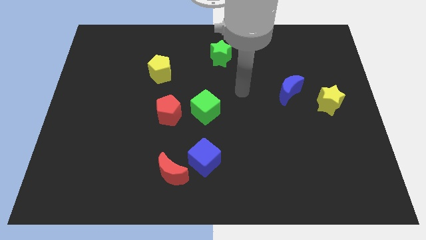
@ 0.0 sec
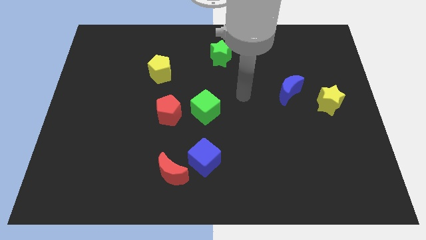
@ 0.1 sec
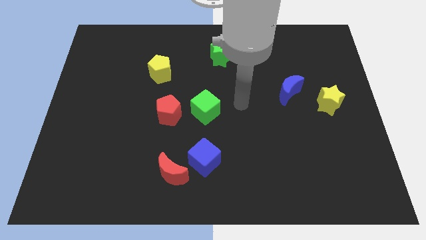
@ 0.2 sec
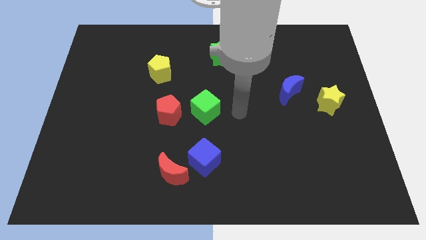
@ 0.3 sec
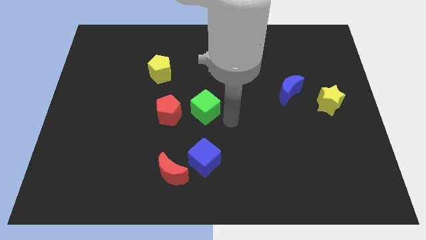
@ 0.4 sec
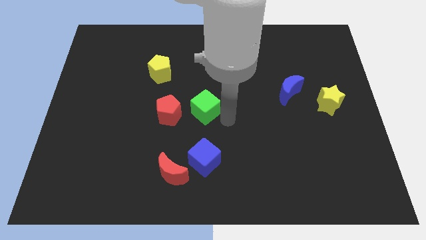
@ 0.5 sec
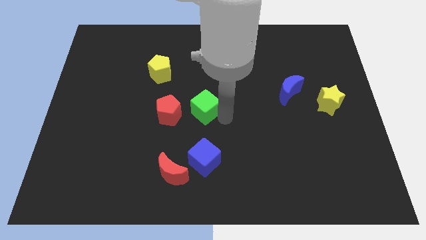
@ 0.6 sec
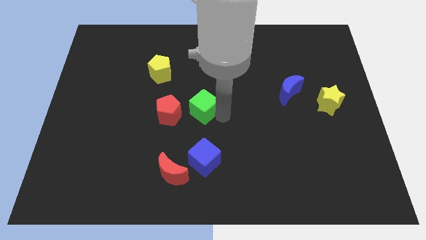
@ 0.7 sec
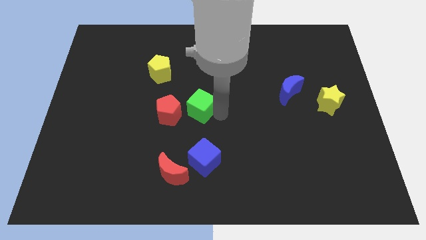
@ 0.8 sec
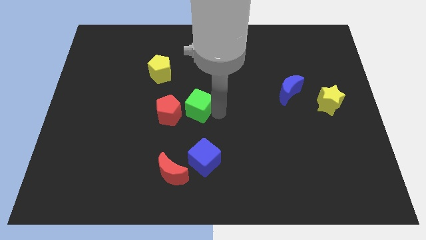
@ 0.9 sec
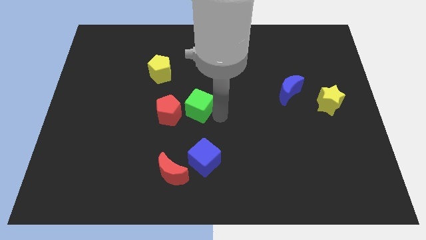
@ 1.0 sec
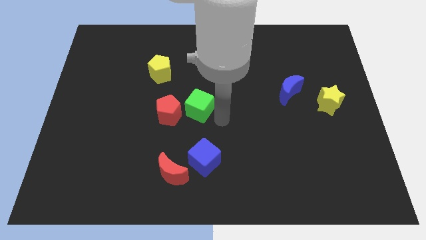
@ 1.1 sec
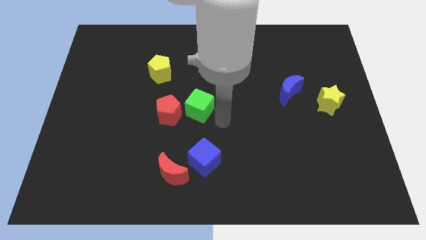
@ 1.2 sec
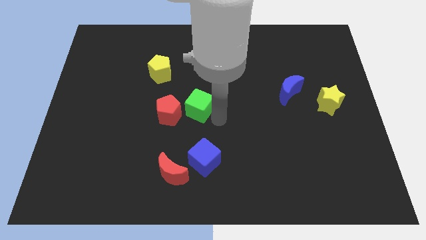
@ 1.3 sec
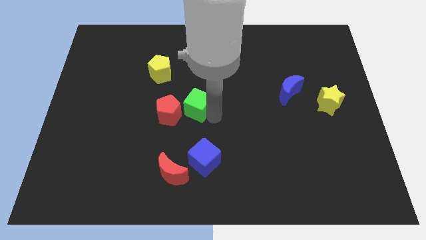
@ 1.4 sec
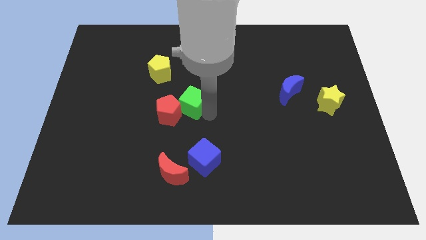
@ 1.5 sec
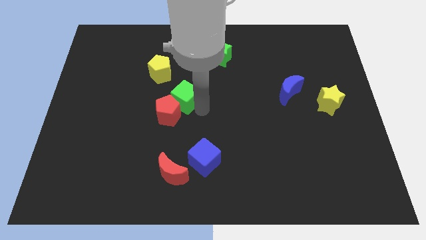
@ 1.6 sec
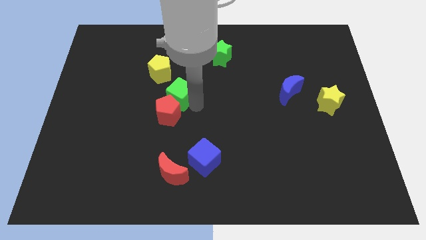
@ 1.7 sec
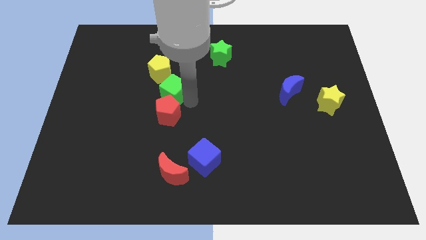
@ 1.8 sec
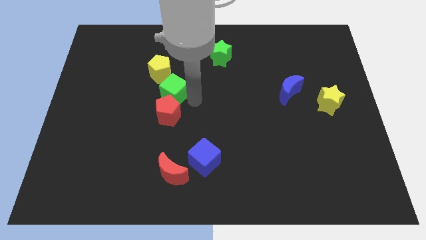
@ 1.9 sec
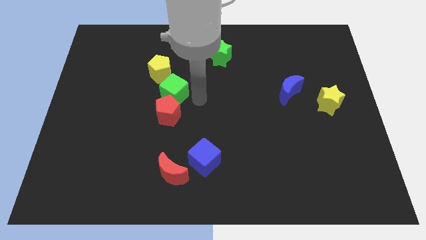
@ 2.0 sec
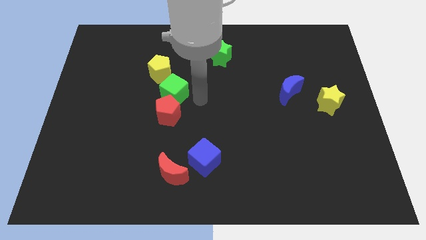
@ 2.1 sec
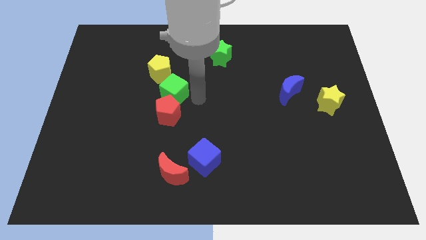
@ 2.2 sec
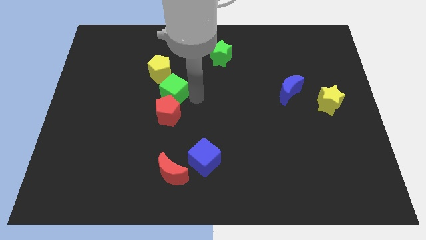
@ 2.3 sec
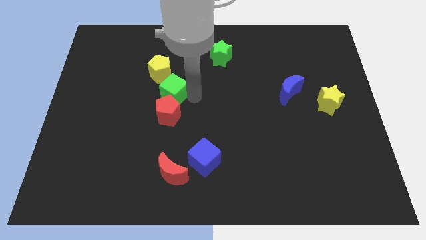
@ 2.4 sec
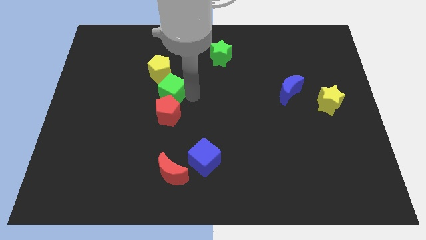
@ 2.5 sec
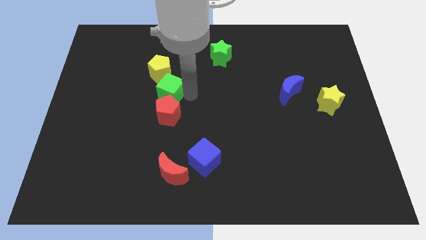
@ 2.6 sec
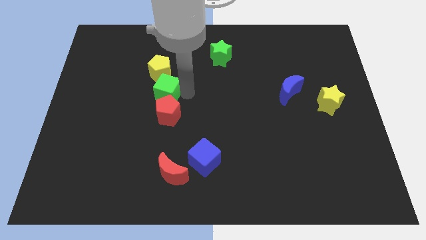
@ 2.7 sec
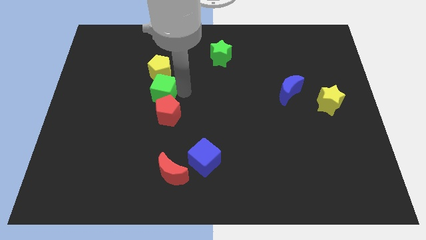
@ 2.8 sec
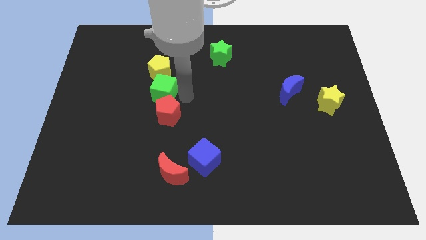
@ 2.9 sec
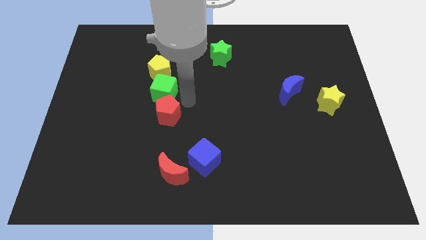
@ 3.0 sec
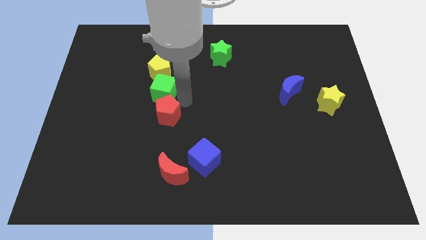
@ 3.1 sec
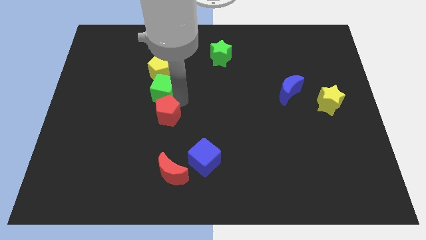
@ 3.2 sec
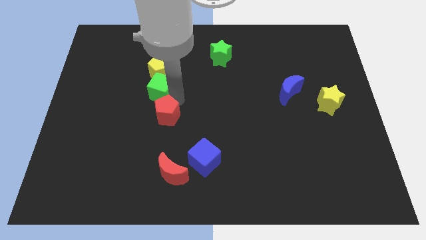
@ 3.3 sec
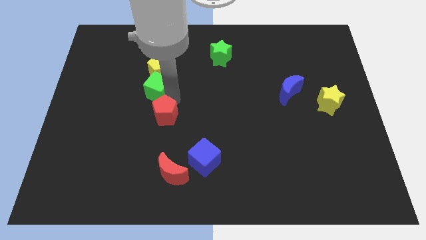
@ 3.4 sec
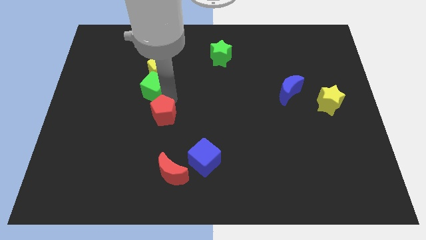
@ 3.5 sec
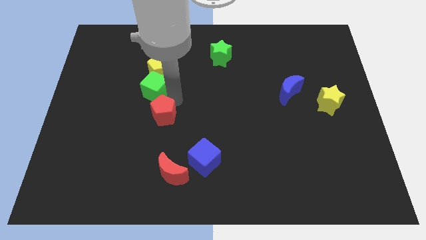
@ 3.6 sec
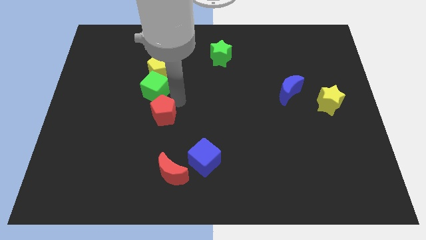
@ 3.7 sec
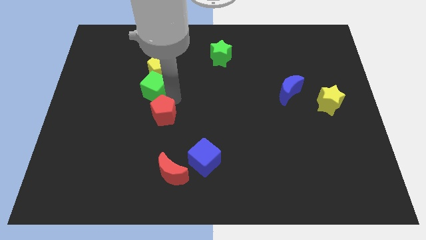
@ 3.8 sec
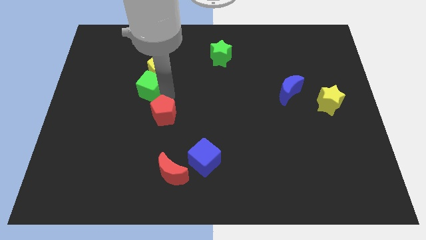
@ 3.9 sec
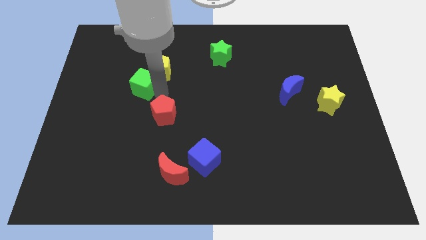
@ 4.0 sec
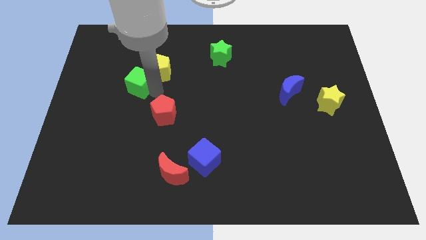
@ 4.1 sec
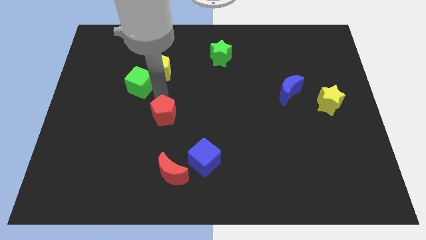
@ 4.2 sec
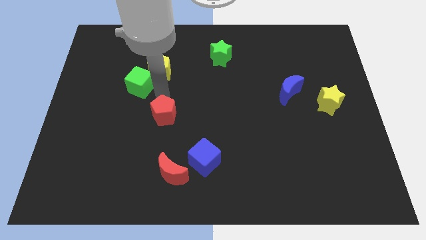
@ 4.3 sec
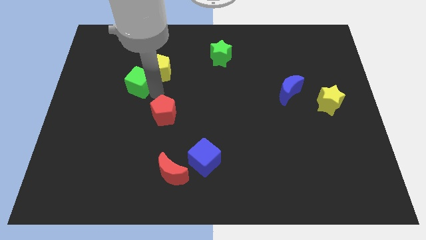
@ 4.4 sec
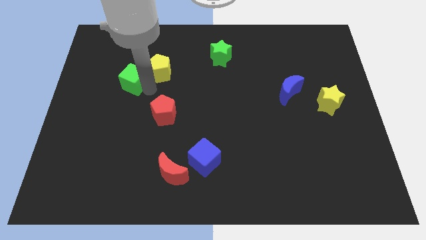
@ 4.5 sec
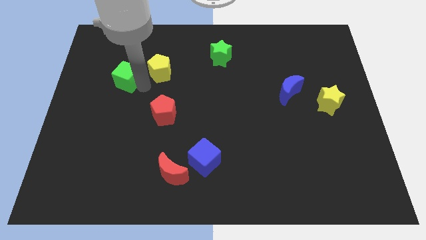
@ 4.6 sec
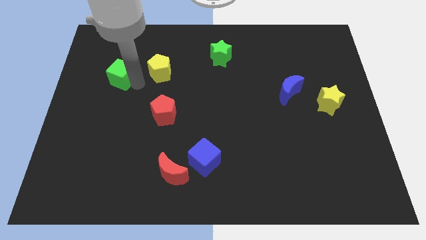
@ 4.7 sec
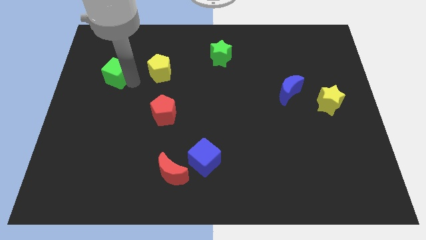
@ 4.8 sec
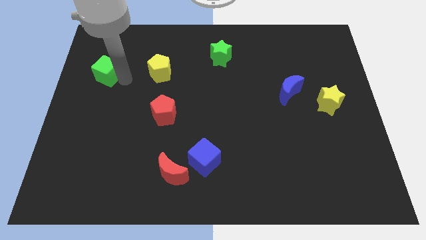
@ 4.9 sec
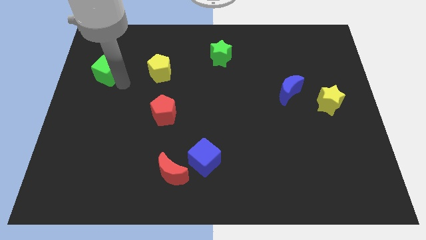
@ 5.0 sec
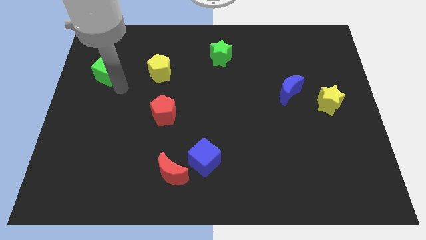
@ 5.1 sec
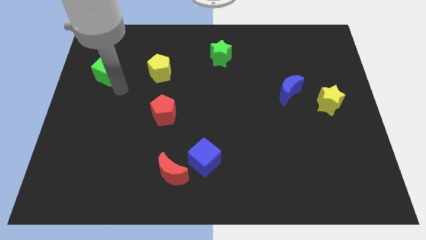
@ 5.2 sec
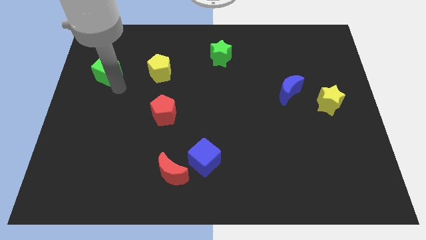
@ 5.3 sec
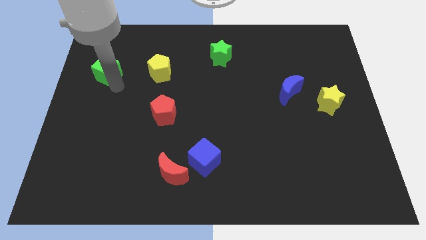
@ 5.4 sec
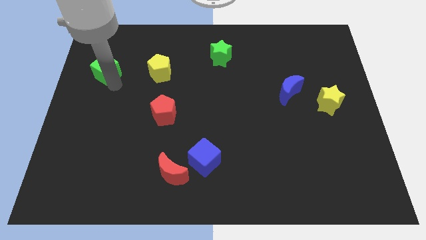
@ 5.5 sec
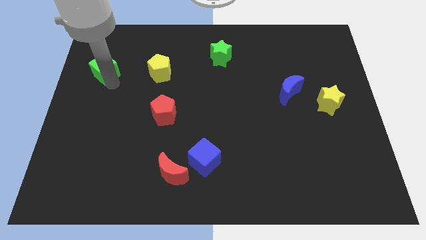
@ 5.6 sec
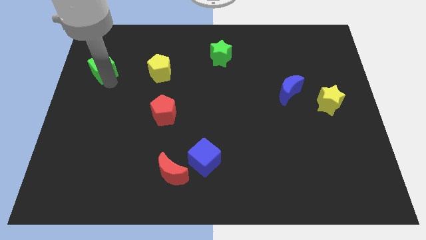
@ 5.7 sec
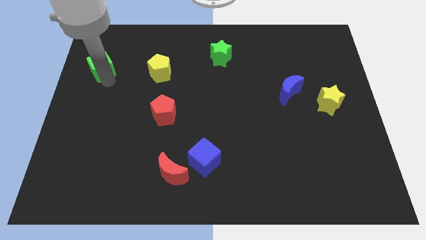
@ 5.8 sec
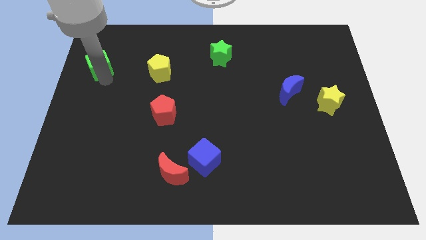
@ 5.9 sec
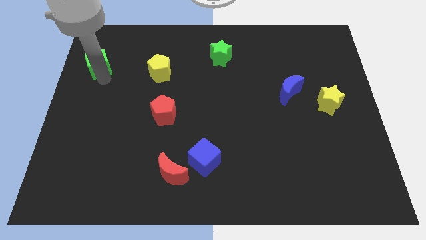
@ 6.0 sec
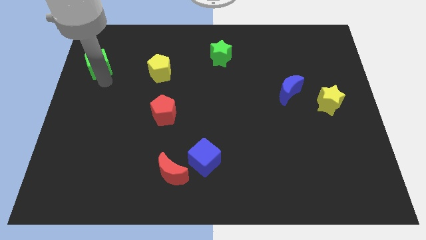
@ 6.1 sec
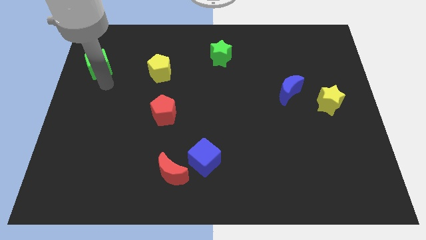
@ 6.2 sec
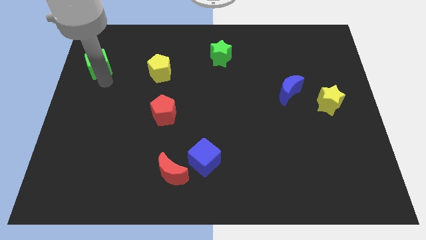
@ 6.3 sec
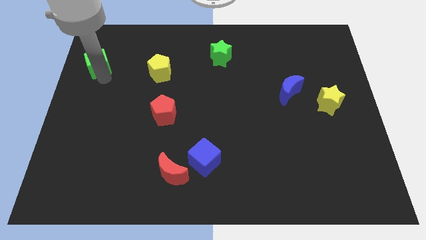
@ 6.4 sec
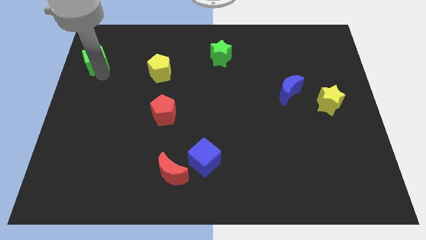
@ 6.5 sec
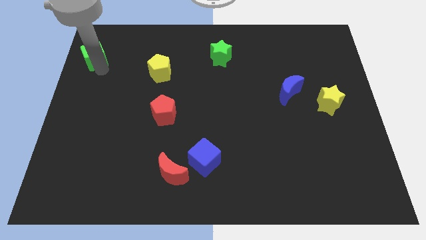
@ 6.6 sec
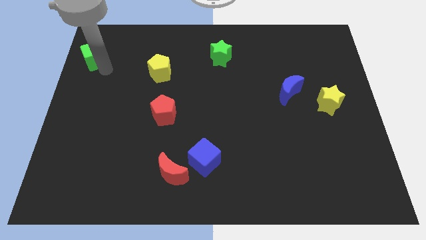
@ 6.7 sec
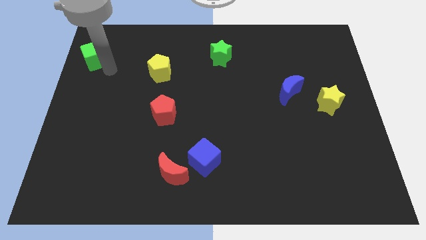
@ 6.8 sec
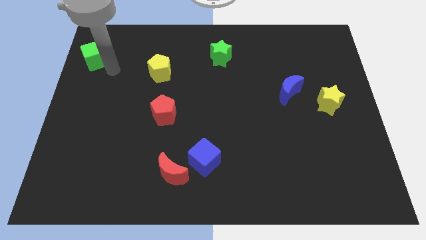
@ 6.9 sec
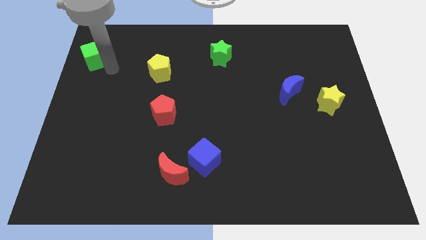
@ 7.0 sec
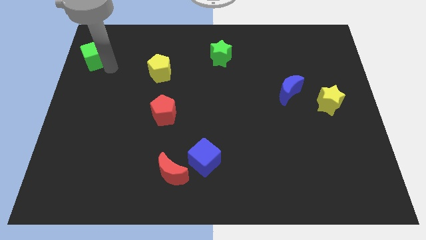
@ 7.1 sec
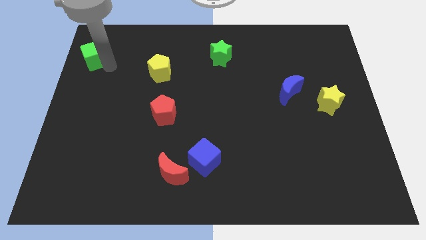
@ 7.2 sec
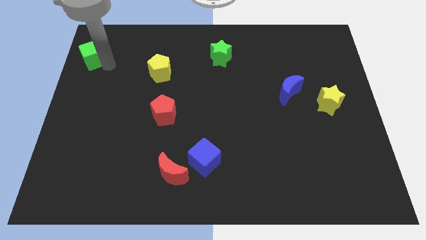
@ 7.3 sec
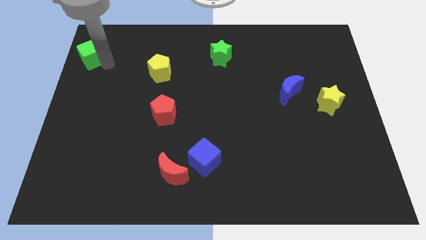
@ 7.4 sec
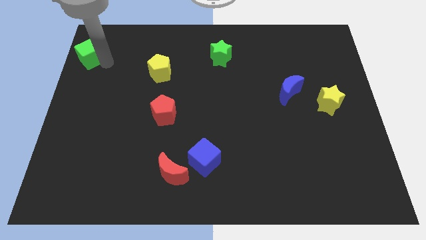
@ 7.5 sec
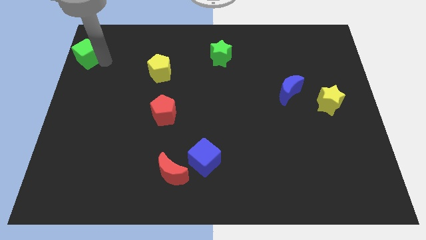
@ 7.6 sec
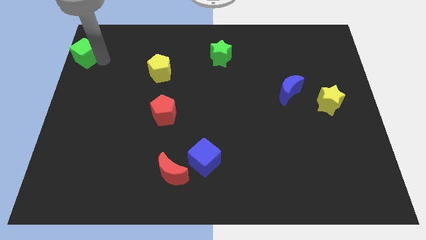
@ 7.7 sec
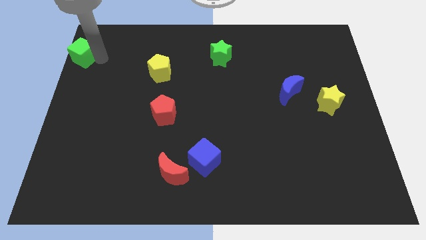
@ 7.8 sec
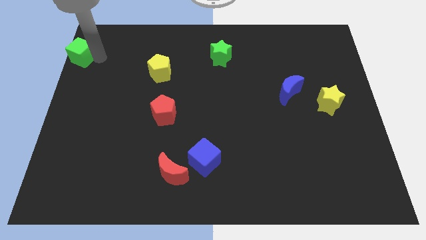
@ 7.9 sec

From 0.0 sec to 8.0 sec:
move the green cube to the top left of the board
